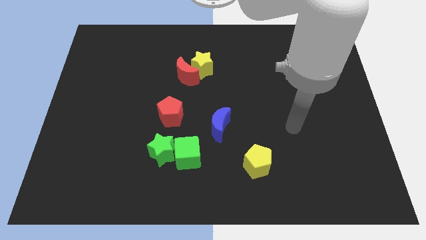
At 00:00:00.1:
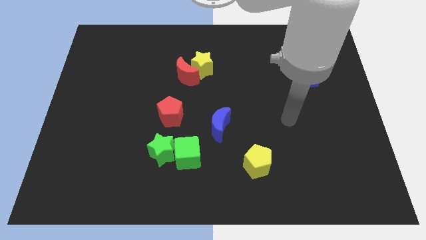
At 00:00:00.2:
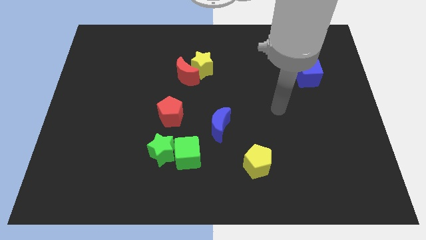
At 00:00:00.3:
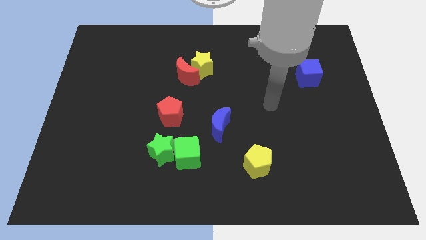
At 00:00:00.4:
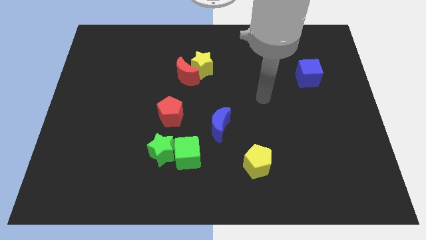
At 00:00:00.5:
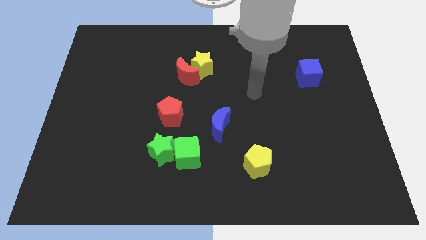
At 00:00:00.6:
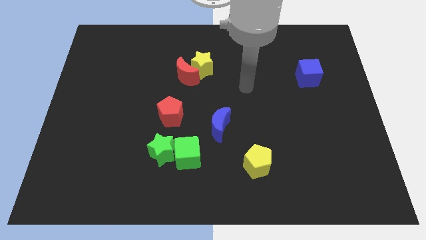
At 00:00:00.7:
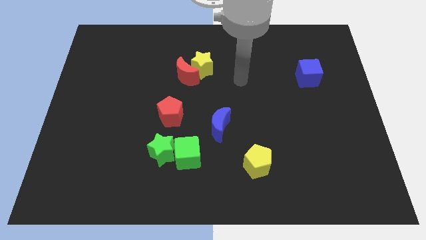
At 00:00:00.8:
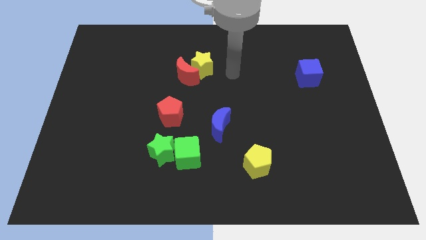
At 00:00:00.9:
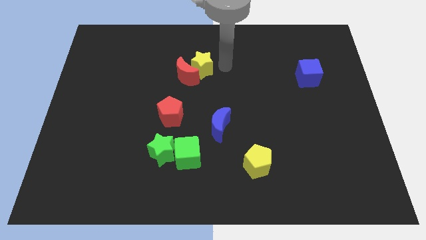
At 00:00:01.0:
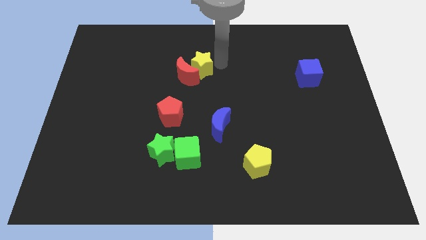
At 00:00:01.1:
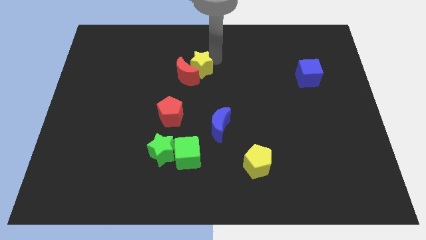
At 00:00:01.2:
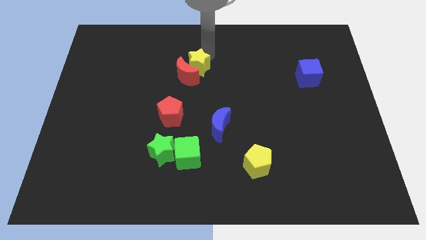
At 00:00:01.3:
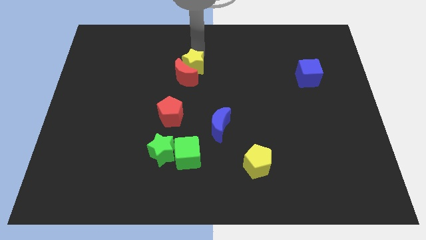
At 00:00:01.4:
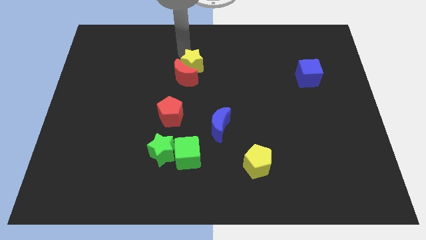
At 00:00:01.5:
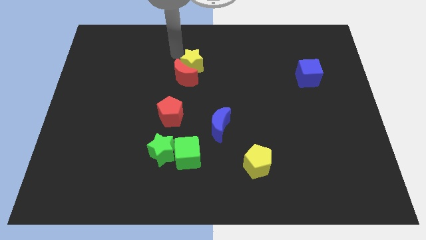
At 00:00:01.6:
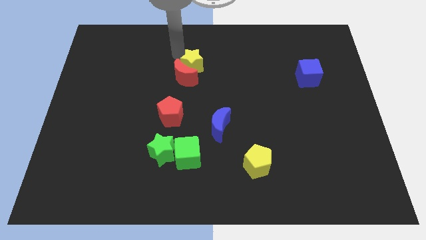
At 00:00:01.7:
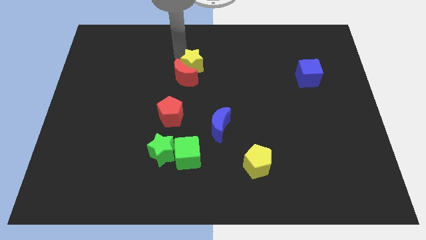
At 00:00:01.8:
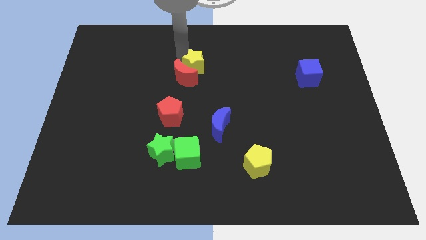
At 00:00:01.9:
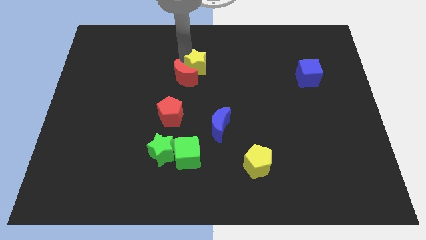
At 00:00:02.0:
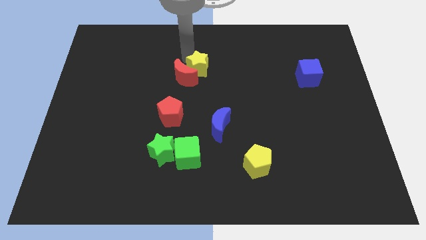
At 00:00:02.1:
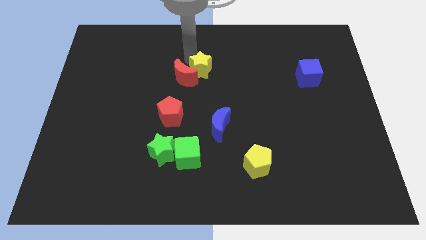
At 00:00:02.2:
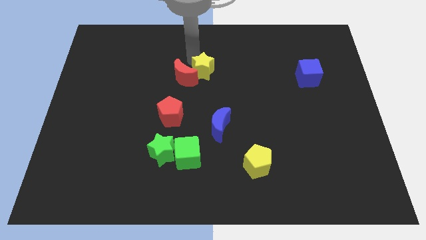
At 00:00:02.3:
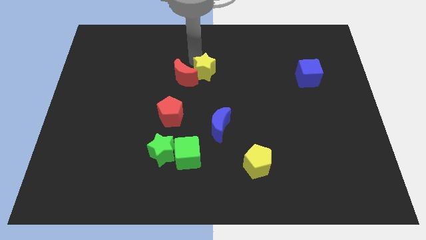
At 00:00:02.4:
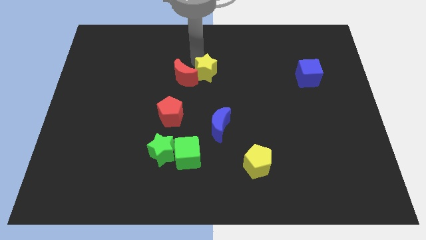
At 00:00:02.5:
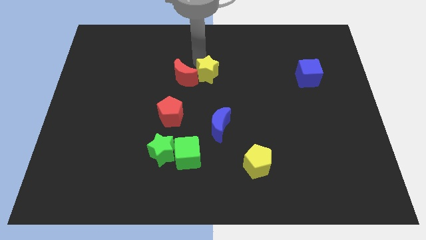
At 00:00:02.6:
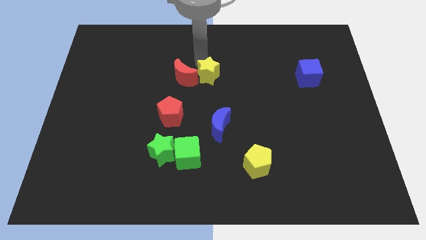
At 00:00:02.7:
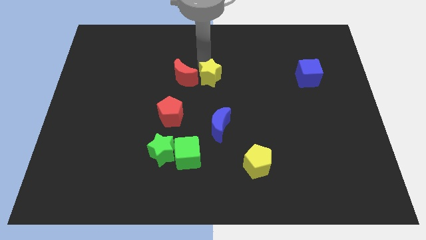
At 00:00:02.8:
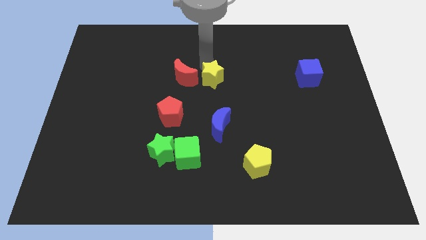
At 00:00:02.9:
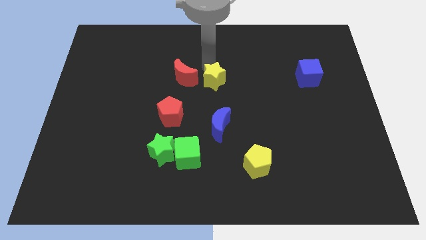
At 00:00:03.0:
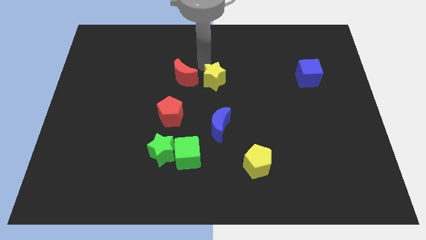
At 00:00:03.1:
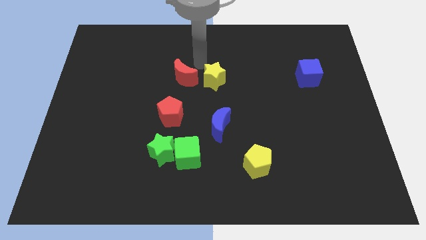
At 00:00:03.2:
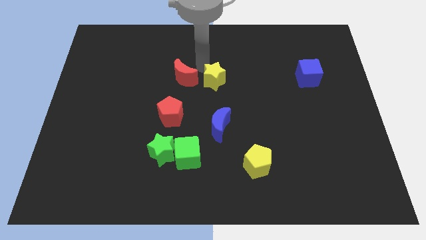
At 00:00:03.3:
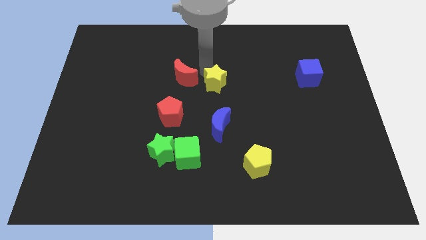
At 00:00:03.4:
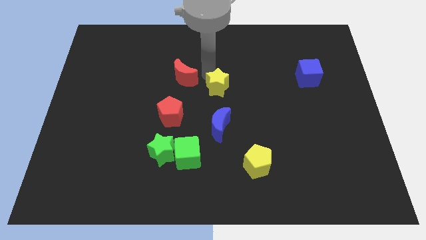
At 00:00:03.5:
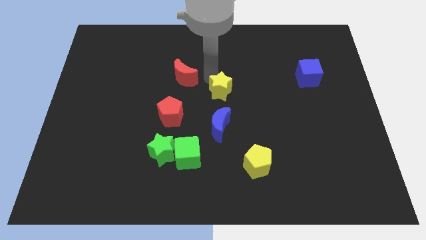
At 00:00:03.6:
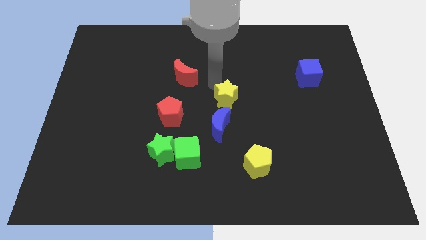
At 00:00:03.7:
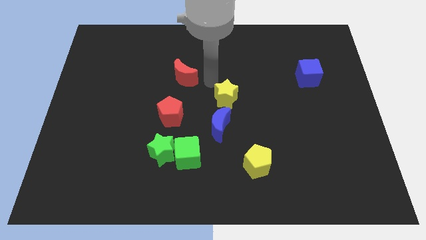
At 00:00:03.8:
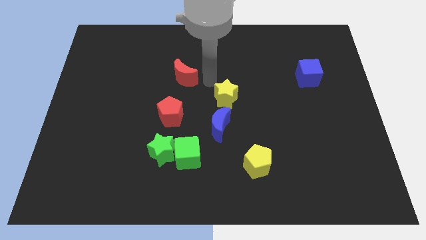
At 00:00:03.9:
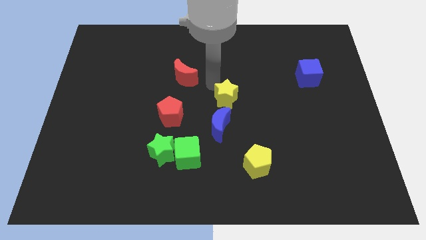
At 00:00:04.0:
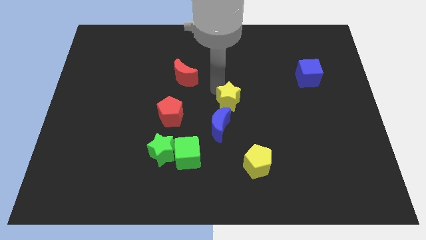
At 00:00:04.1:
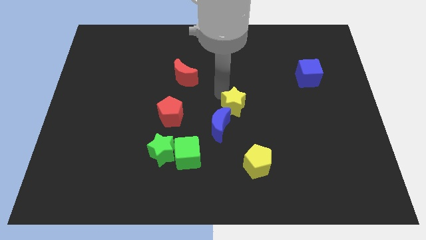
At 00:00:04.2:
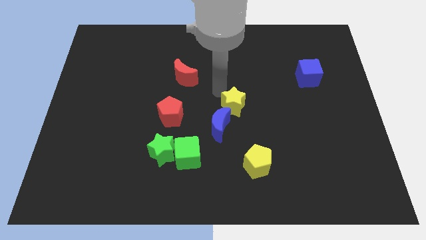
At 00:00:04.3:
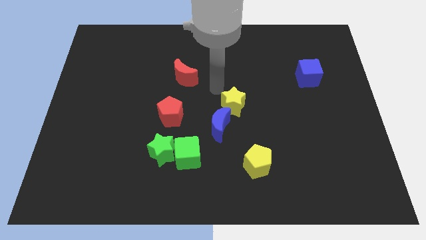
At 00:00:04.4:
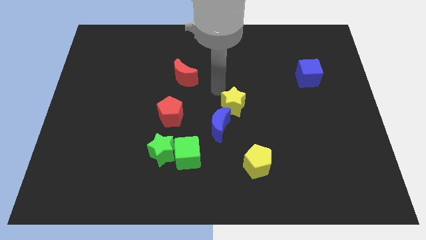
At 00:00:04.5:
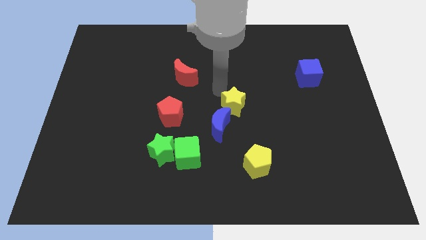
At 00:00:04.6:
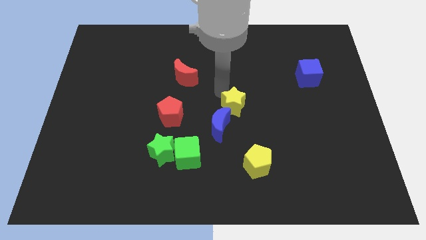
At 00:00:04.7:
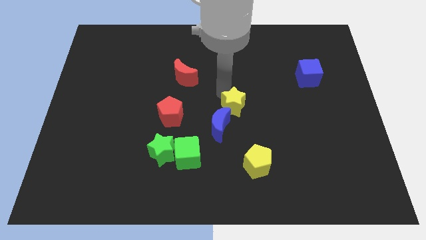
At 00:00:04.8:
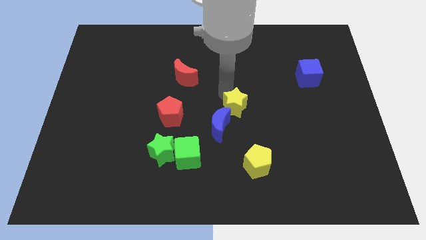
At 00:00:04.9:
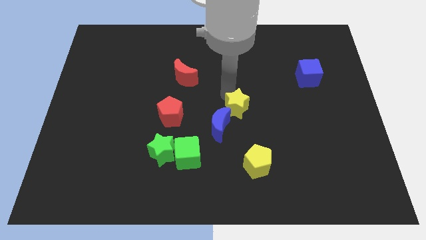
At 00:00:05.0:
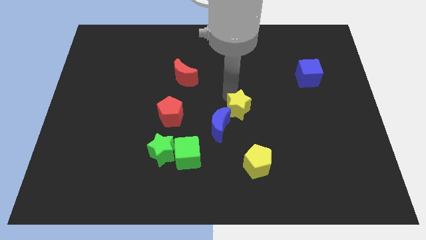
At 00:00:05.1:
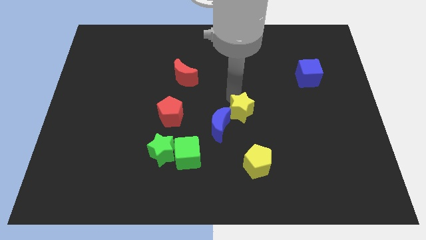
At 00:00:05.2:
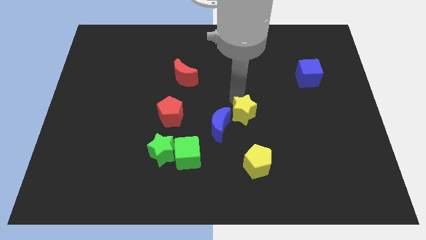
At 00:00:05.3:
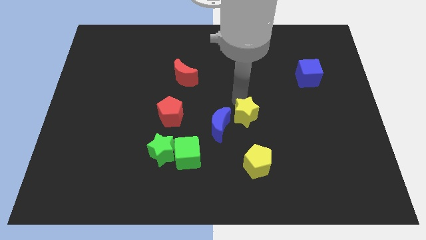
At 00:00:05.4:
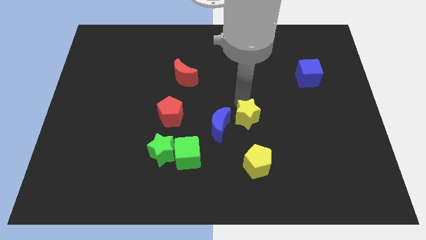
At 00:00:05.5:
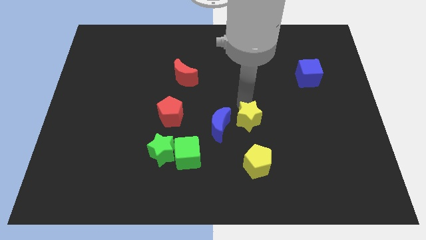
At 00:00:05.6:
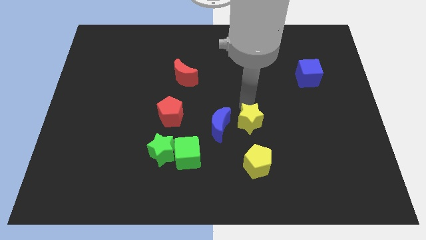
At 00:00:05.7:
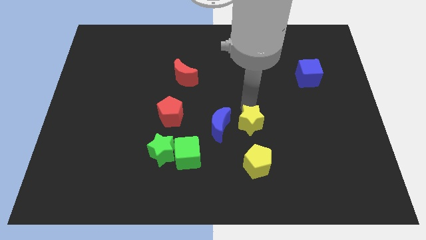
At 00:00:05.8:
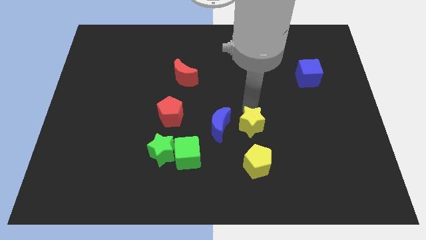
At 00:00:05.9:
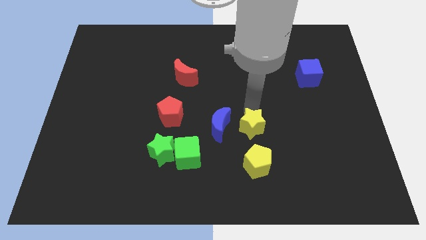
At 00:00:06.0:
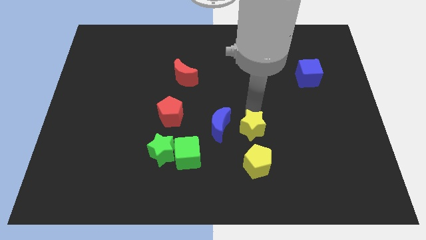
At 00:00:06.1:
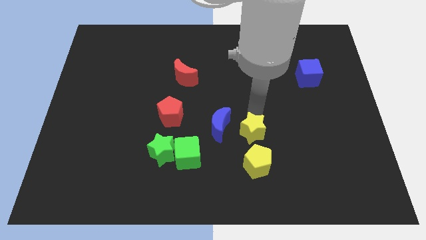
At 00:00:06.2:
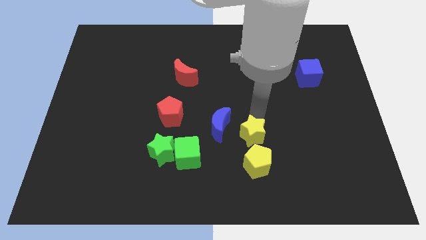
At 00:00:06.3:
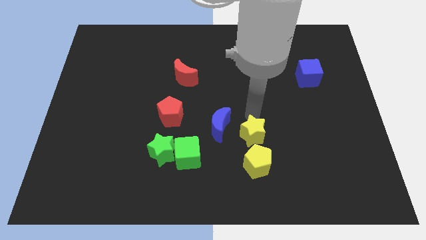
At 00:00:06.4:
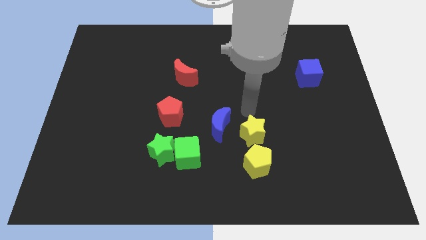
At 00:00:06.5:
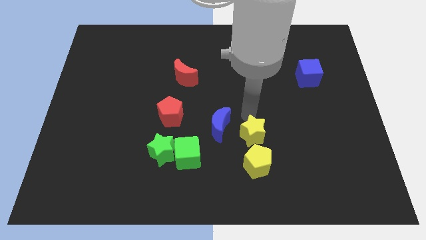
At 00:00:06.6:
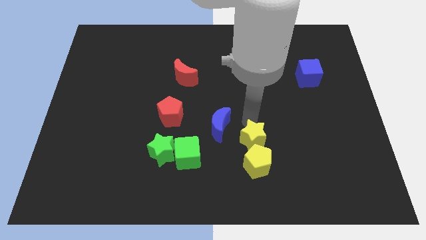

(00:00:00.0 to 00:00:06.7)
move the yellow star close to the yellow pentagon

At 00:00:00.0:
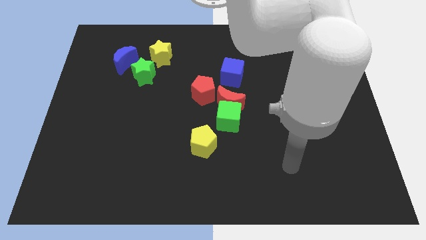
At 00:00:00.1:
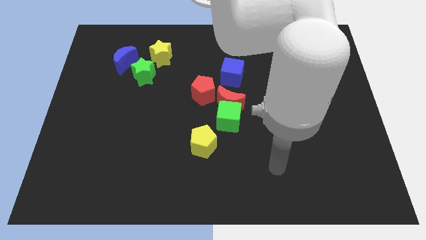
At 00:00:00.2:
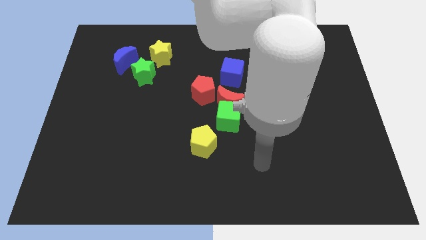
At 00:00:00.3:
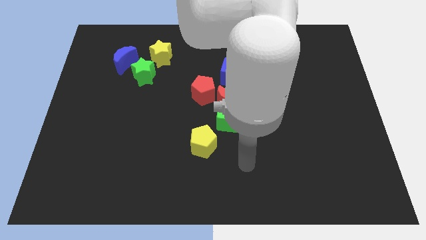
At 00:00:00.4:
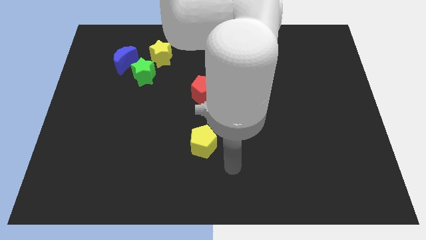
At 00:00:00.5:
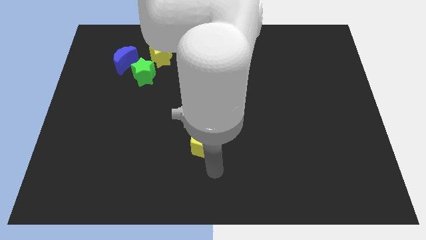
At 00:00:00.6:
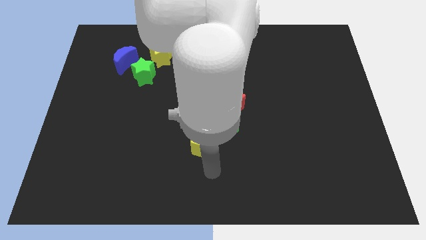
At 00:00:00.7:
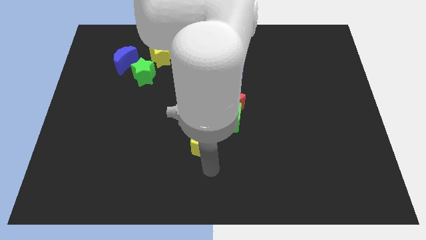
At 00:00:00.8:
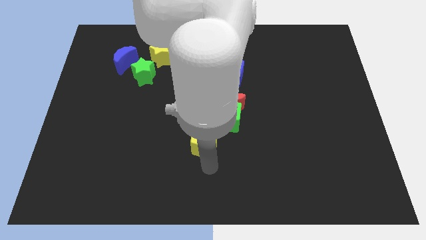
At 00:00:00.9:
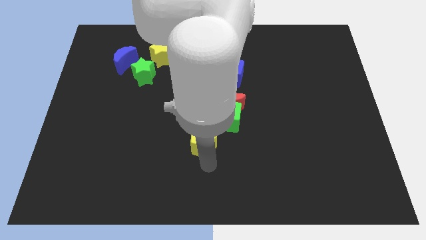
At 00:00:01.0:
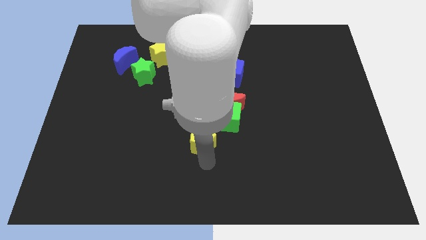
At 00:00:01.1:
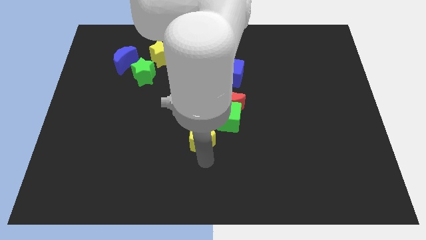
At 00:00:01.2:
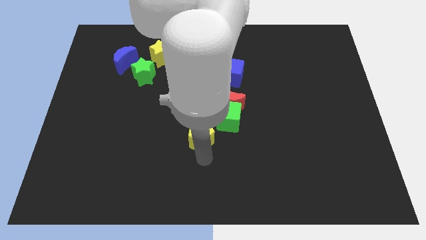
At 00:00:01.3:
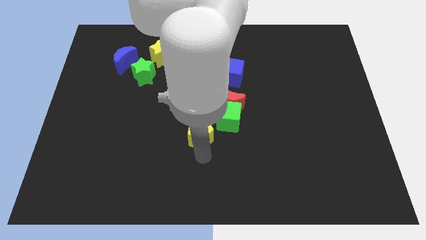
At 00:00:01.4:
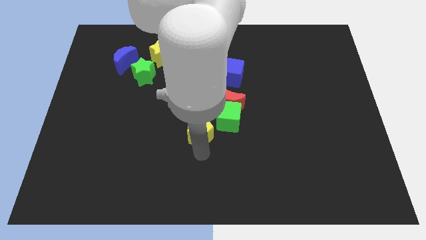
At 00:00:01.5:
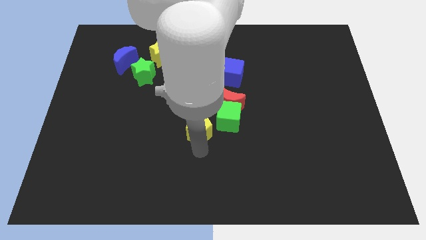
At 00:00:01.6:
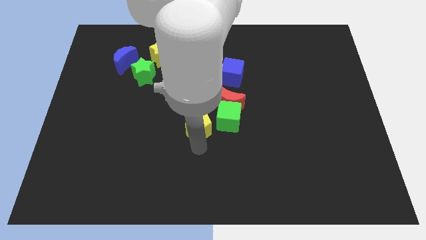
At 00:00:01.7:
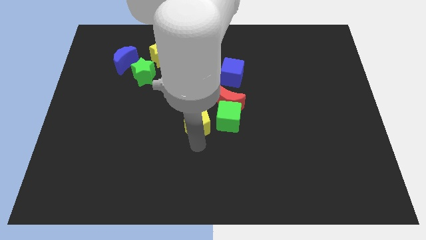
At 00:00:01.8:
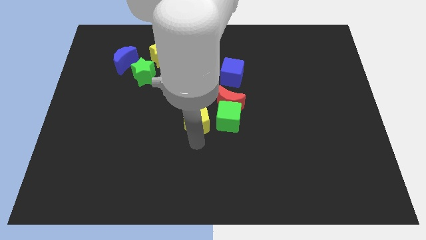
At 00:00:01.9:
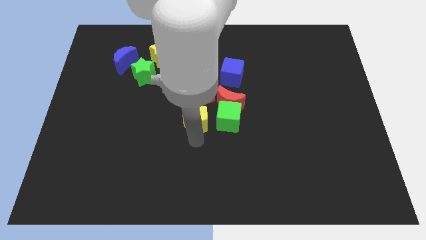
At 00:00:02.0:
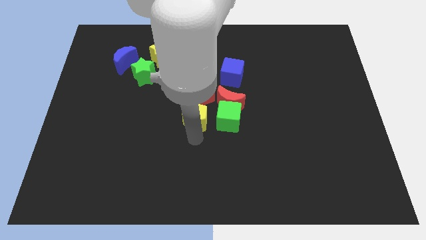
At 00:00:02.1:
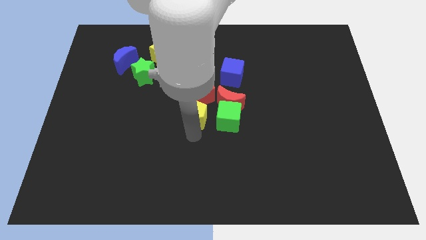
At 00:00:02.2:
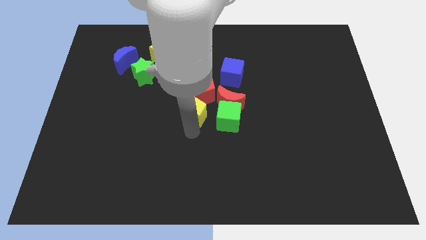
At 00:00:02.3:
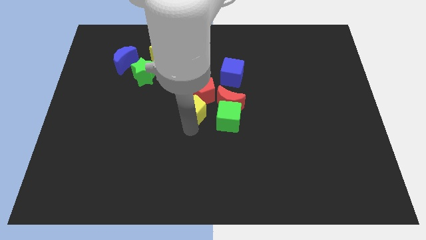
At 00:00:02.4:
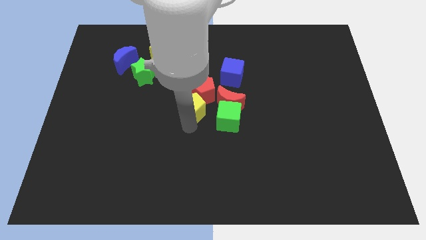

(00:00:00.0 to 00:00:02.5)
slide the yellow pentagon to the red pentagon
